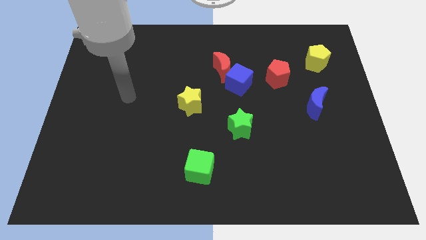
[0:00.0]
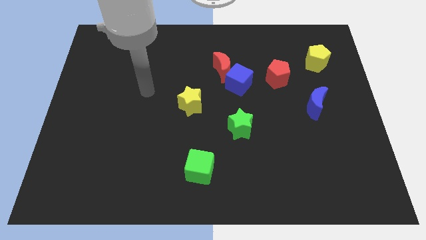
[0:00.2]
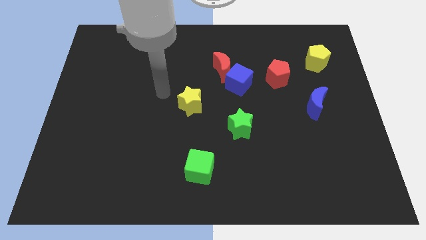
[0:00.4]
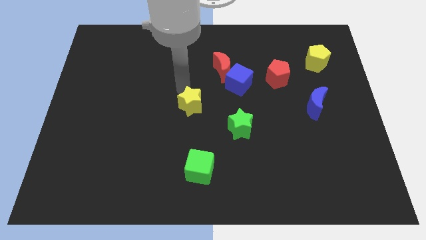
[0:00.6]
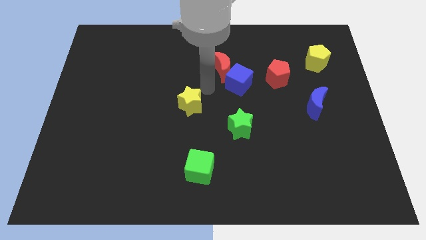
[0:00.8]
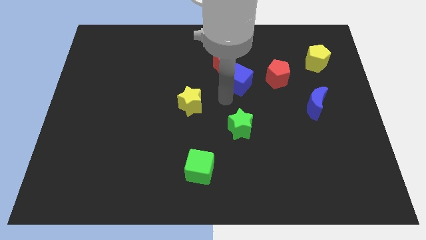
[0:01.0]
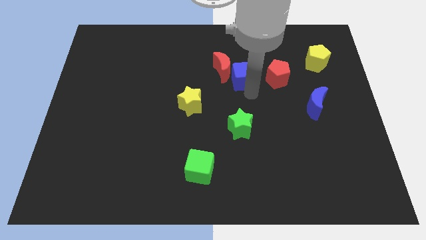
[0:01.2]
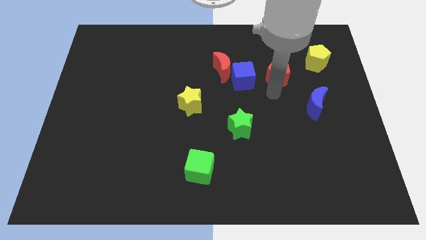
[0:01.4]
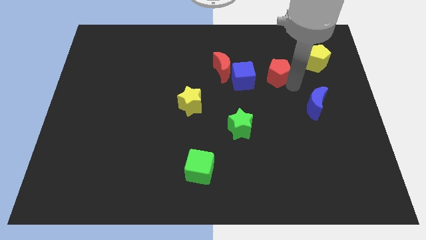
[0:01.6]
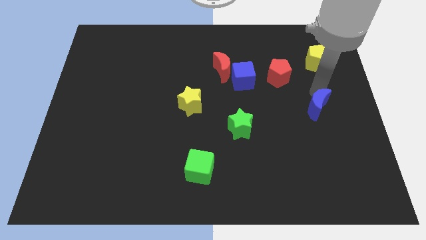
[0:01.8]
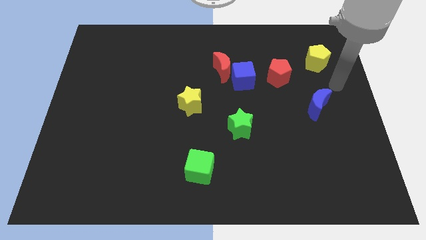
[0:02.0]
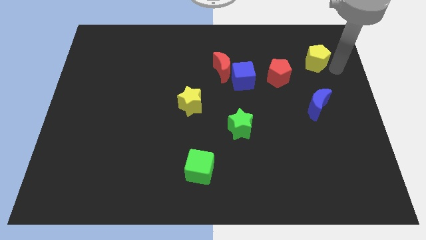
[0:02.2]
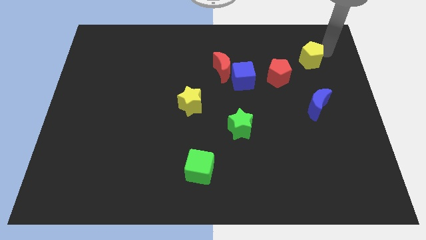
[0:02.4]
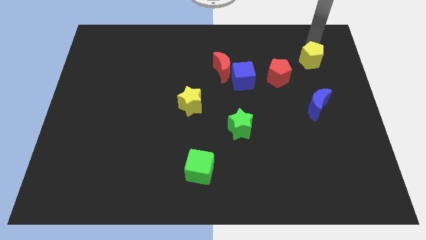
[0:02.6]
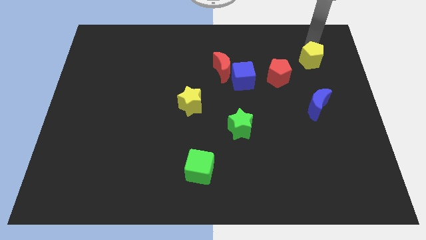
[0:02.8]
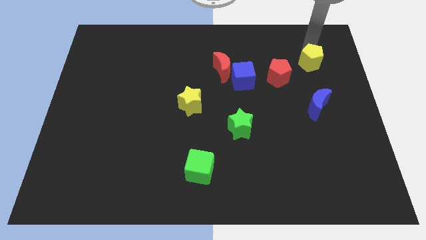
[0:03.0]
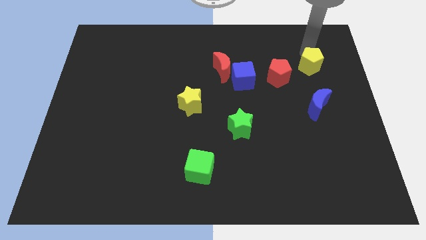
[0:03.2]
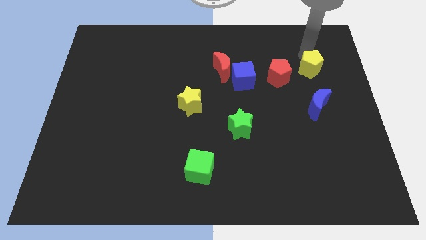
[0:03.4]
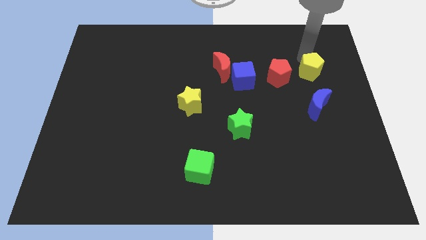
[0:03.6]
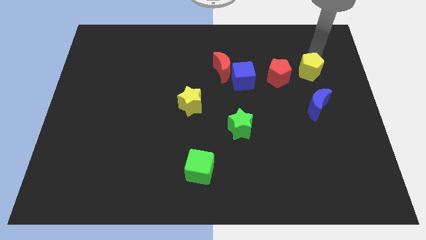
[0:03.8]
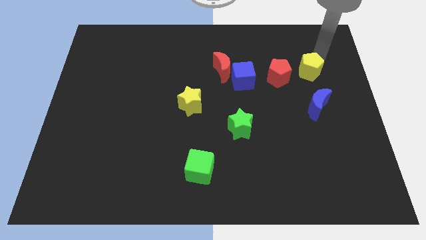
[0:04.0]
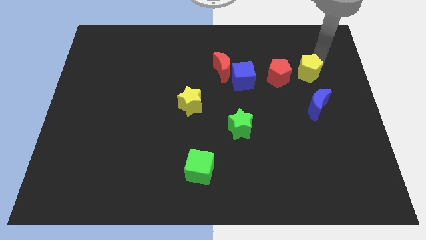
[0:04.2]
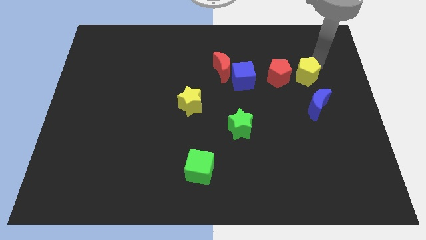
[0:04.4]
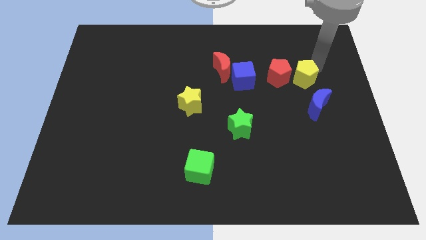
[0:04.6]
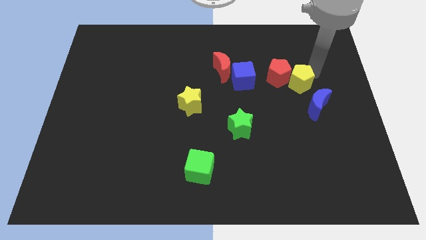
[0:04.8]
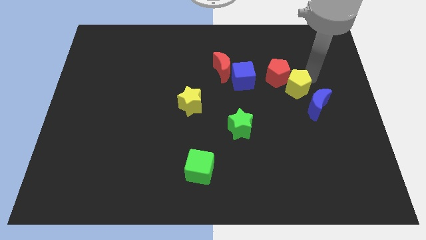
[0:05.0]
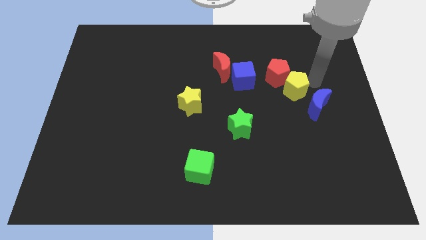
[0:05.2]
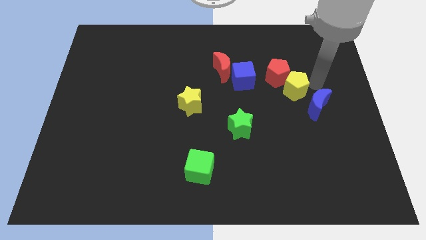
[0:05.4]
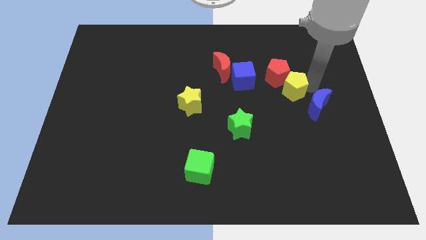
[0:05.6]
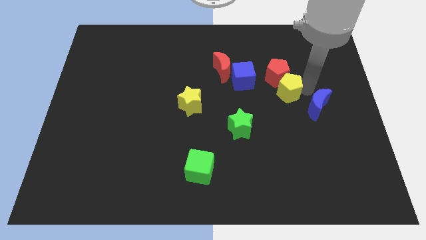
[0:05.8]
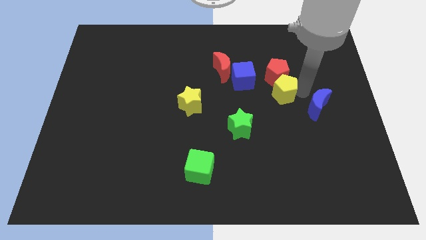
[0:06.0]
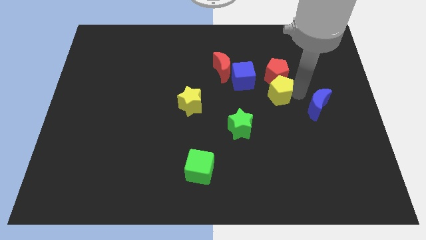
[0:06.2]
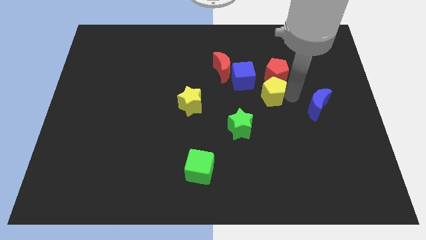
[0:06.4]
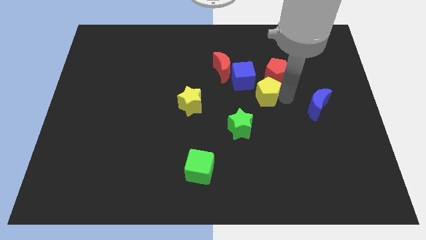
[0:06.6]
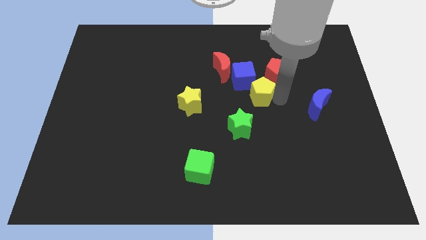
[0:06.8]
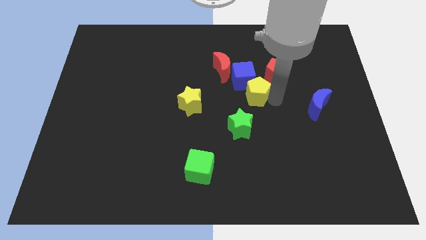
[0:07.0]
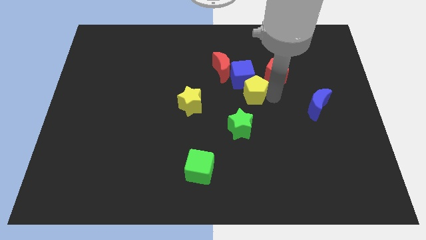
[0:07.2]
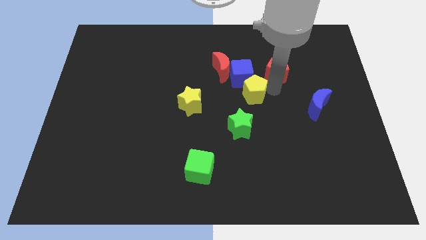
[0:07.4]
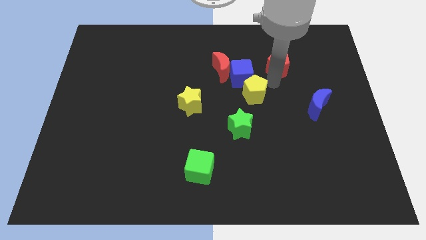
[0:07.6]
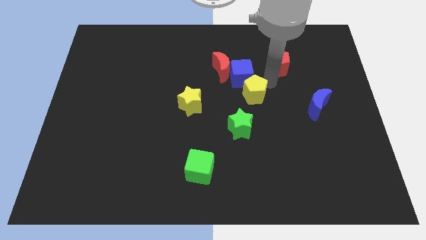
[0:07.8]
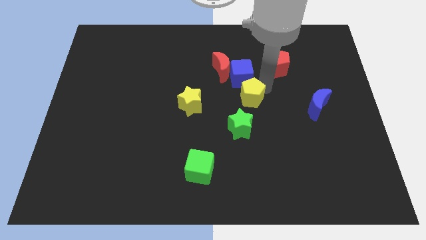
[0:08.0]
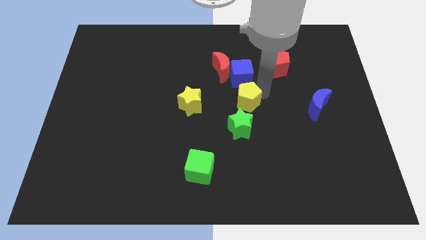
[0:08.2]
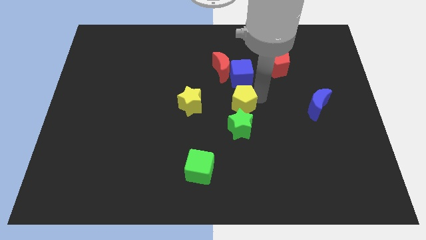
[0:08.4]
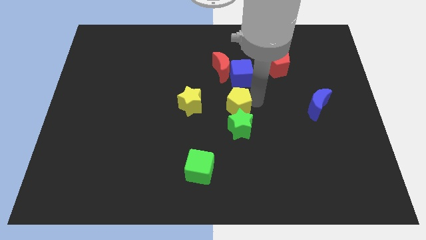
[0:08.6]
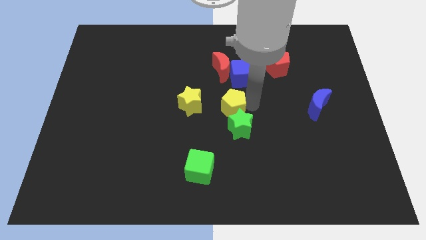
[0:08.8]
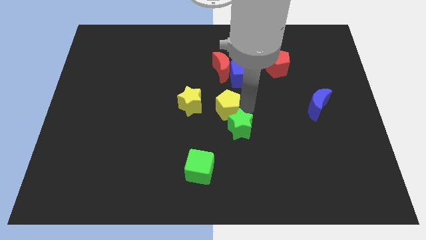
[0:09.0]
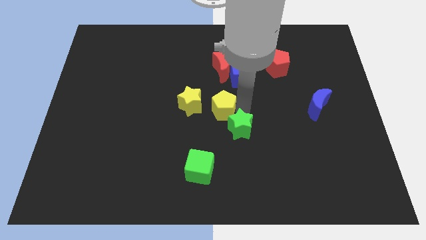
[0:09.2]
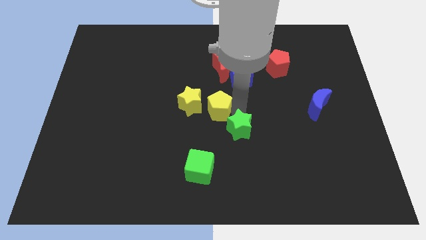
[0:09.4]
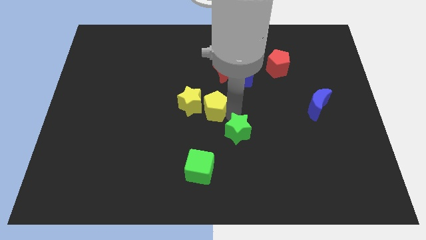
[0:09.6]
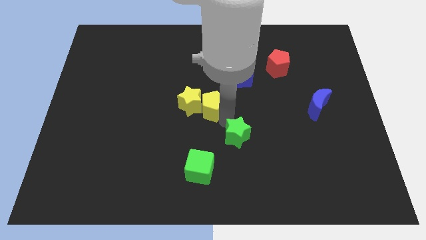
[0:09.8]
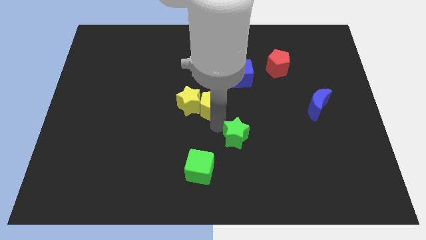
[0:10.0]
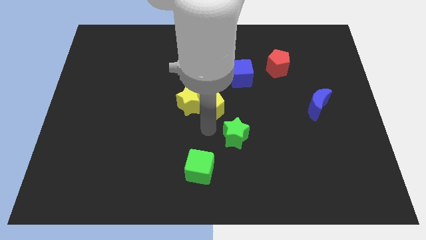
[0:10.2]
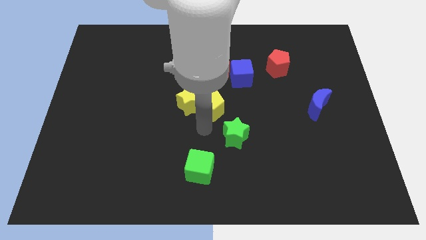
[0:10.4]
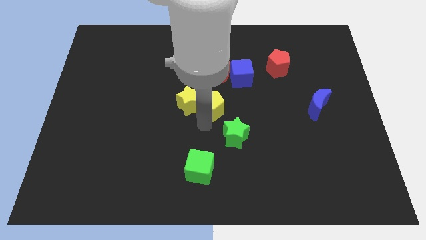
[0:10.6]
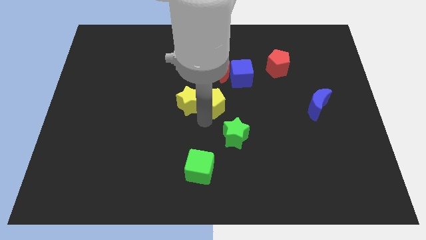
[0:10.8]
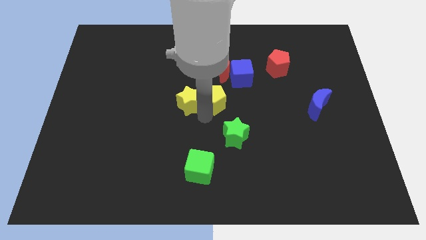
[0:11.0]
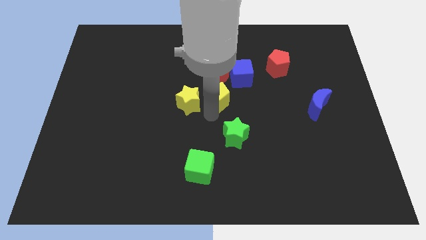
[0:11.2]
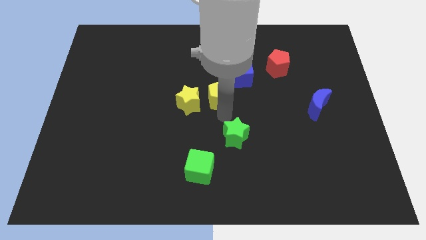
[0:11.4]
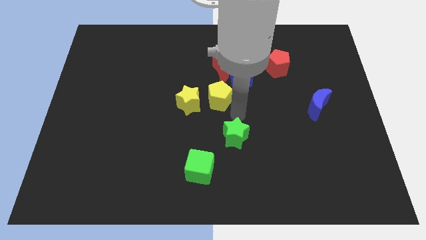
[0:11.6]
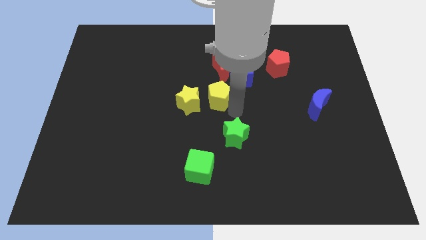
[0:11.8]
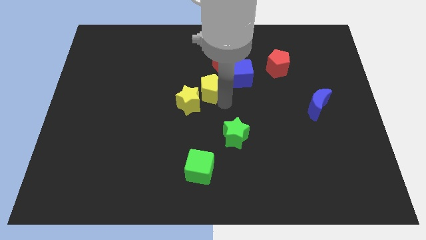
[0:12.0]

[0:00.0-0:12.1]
move the yellow pentagon to the bottom left side of the red moon

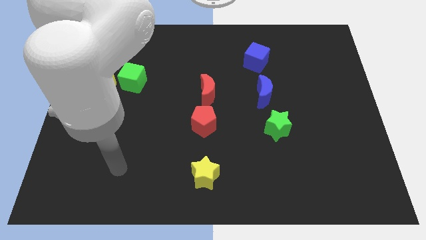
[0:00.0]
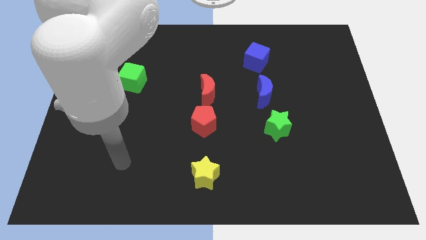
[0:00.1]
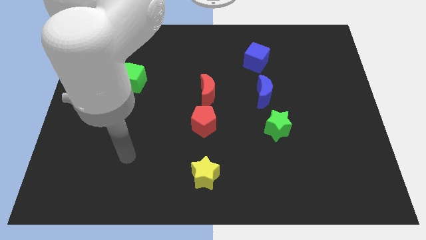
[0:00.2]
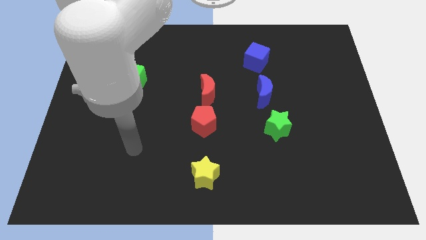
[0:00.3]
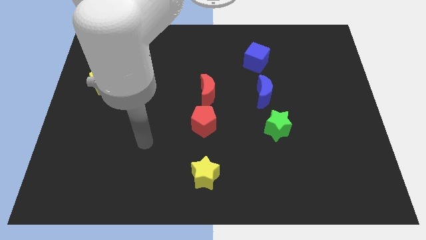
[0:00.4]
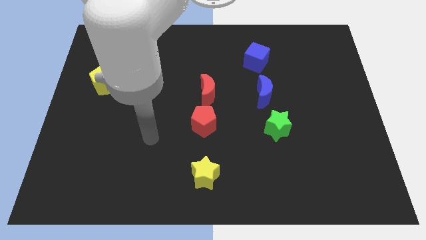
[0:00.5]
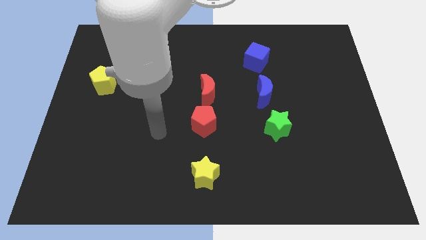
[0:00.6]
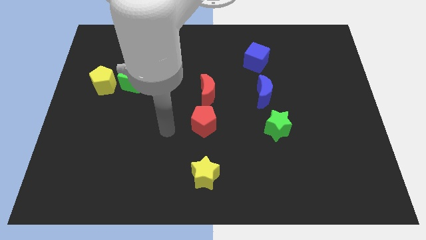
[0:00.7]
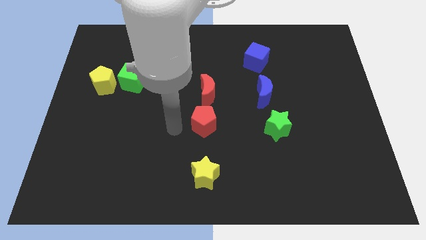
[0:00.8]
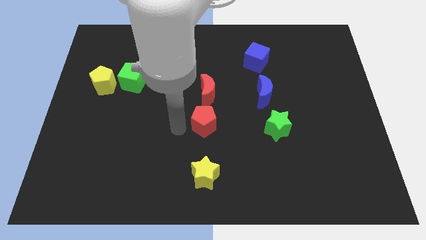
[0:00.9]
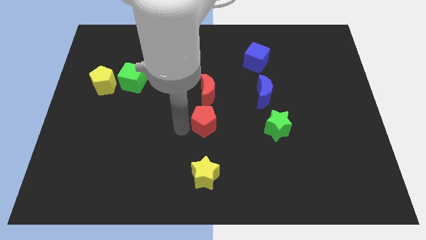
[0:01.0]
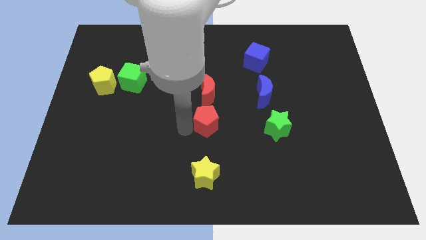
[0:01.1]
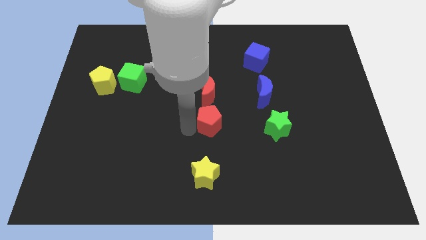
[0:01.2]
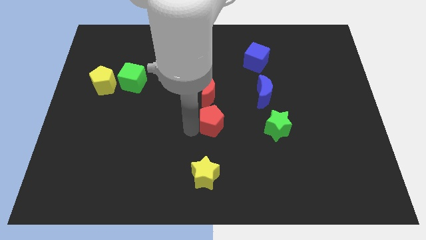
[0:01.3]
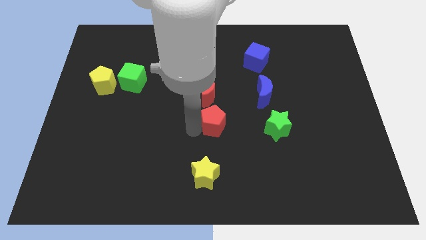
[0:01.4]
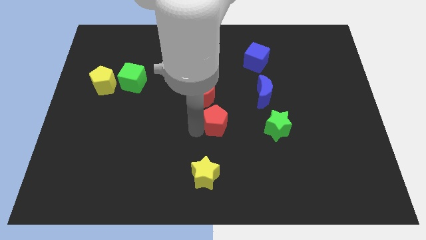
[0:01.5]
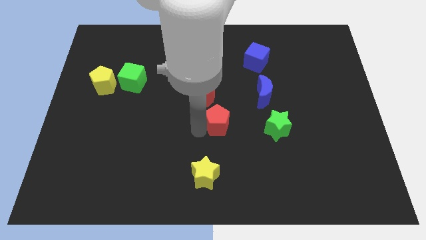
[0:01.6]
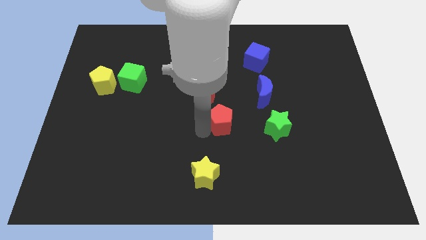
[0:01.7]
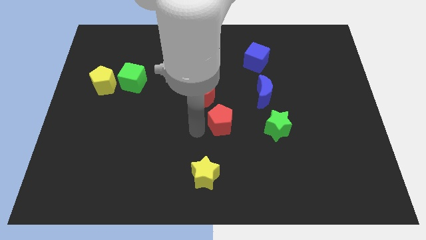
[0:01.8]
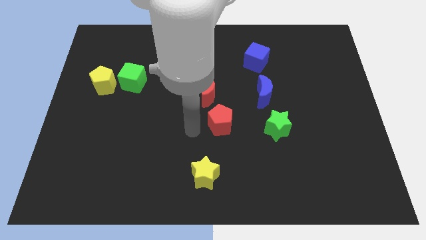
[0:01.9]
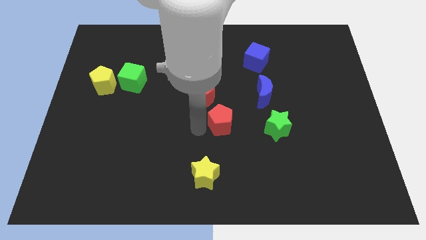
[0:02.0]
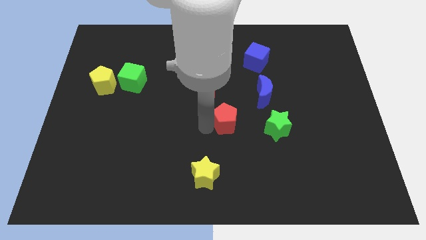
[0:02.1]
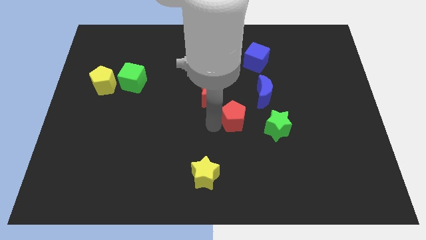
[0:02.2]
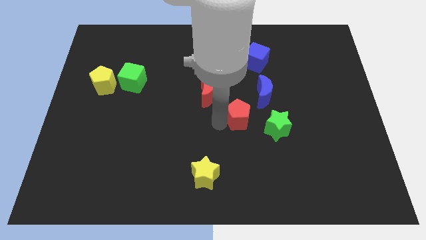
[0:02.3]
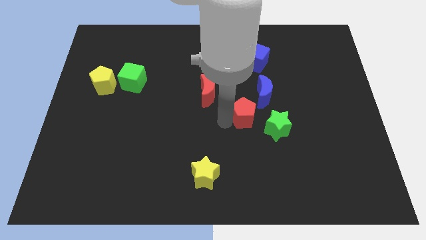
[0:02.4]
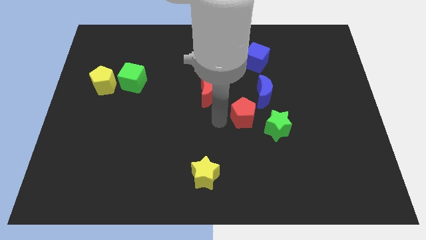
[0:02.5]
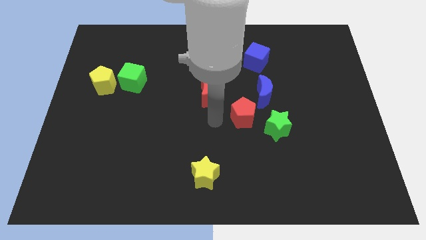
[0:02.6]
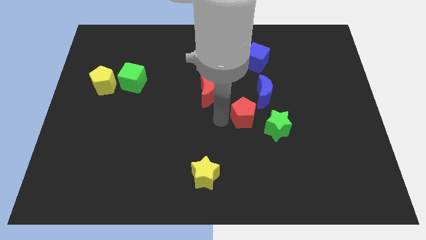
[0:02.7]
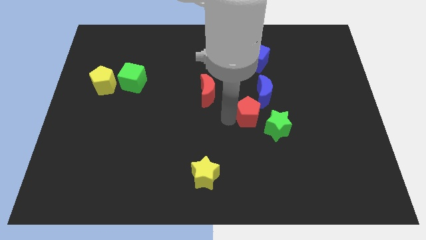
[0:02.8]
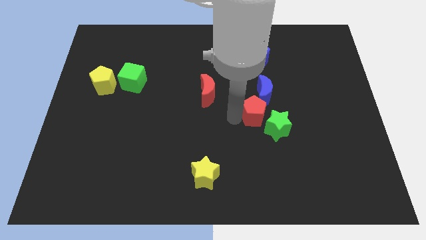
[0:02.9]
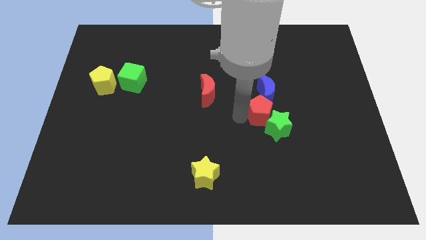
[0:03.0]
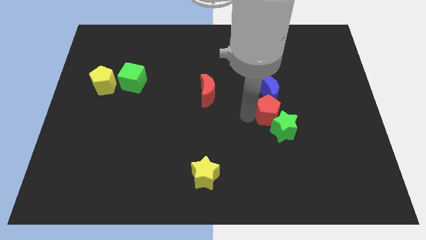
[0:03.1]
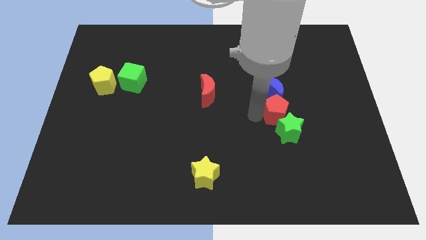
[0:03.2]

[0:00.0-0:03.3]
move the red pentagon to the bottom right of the blue moon
